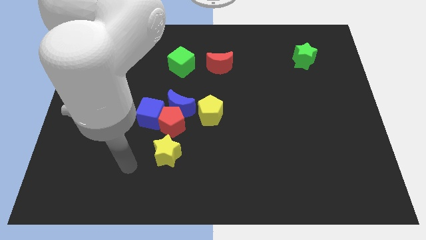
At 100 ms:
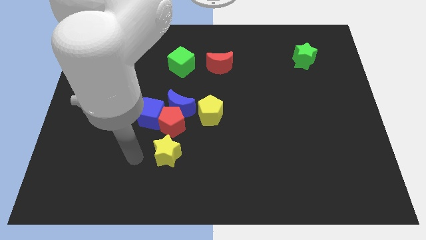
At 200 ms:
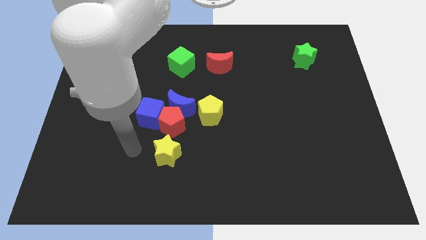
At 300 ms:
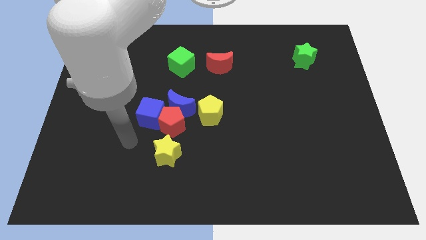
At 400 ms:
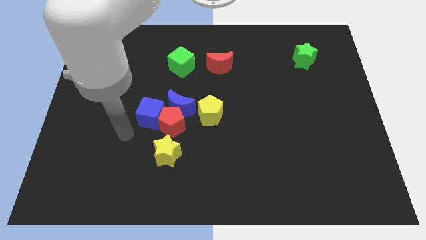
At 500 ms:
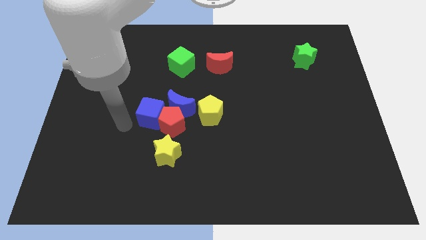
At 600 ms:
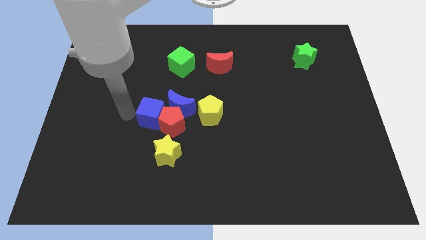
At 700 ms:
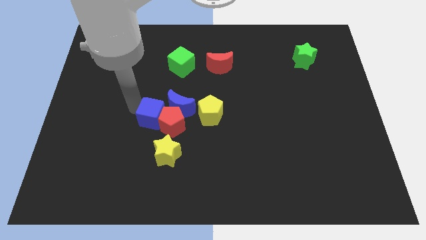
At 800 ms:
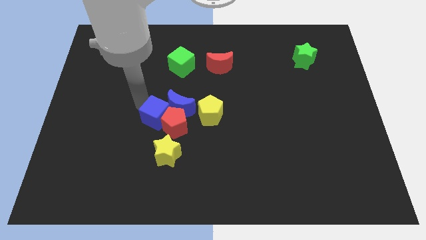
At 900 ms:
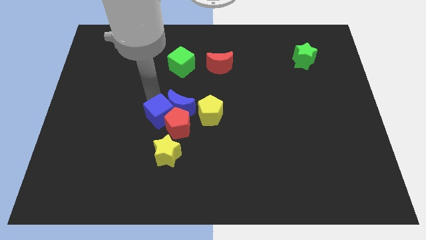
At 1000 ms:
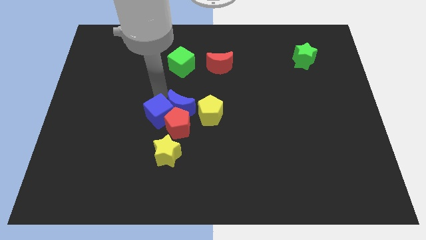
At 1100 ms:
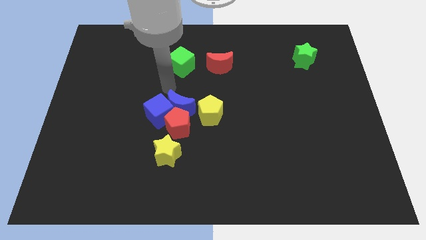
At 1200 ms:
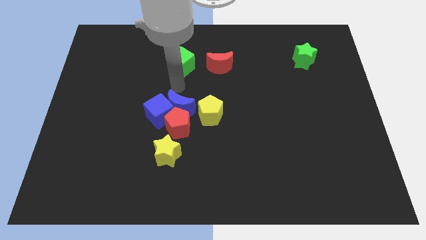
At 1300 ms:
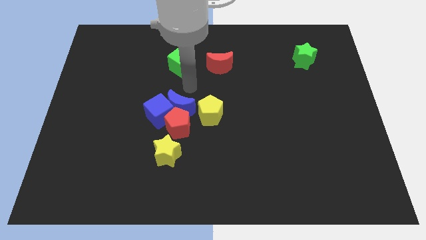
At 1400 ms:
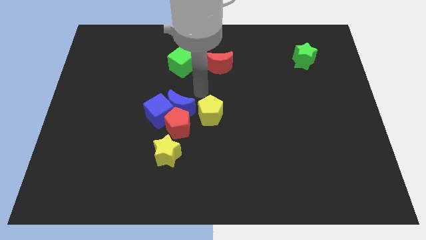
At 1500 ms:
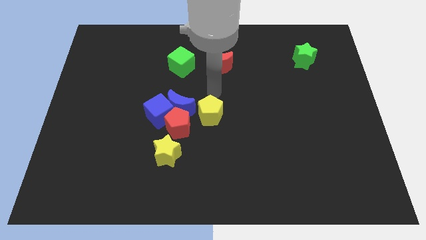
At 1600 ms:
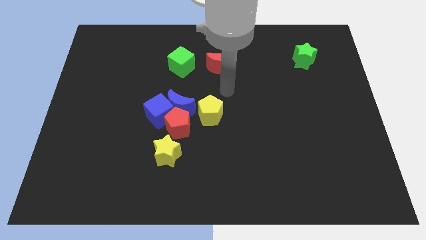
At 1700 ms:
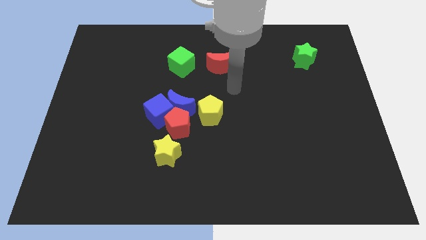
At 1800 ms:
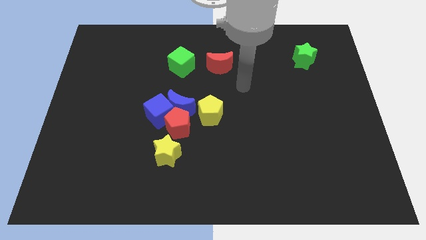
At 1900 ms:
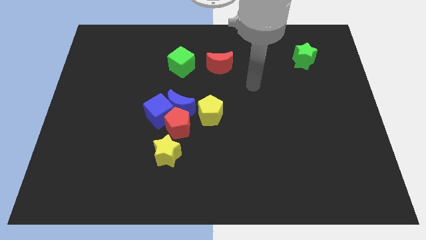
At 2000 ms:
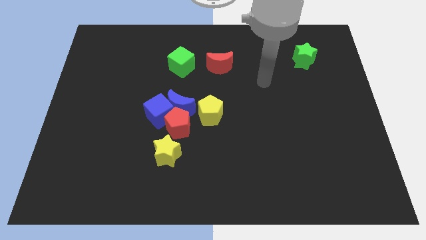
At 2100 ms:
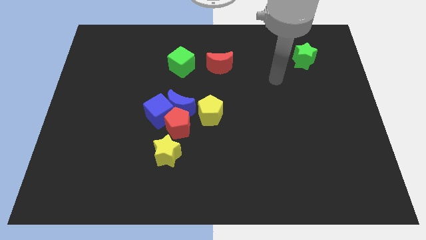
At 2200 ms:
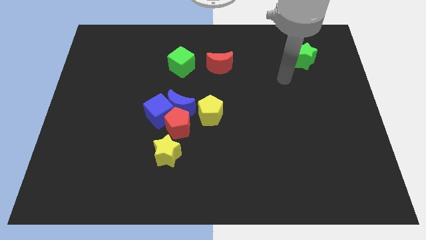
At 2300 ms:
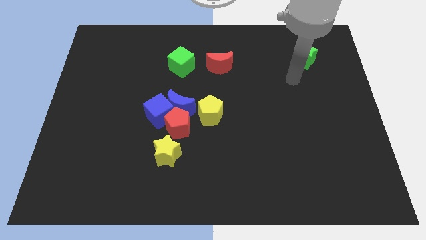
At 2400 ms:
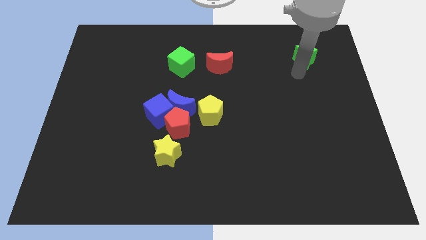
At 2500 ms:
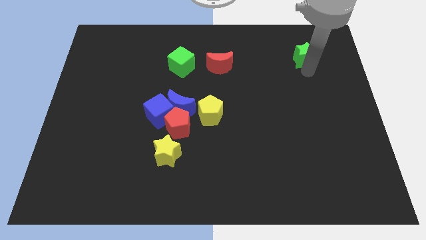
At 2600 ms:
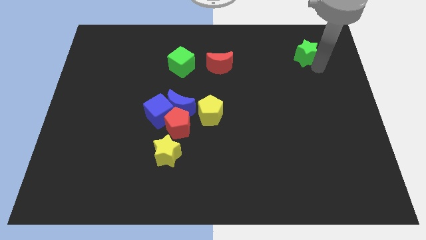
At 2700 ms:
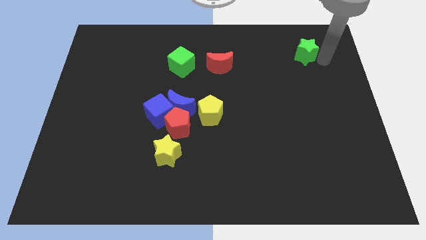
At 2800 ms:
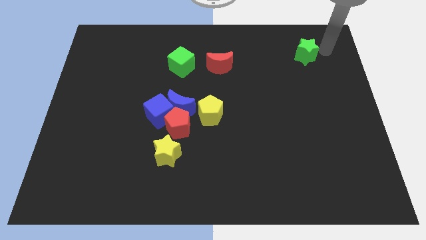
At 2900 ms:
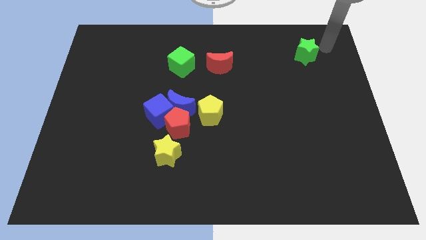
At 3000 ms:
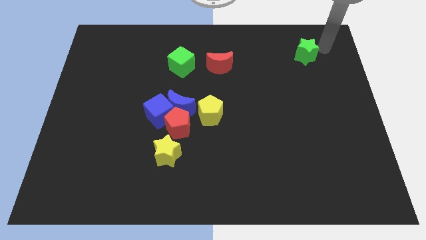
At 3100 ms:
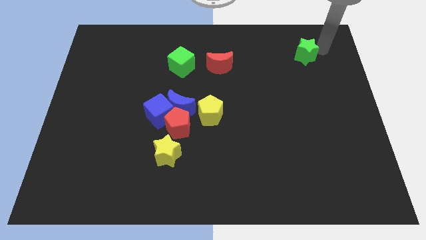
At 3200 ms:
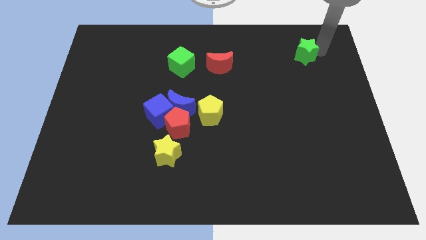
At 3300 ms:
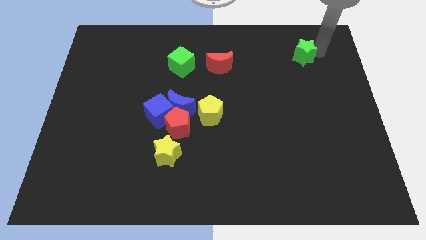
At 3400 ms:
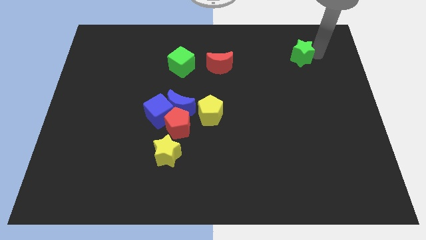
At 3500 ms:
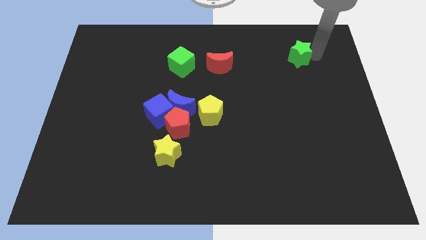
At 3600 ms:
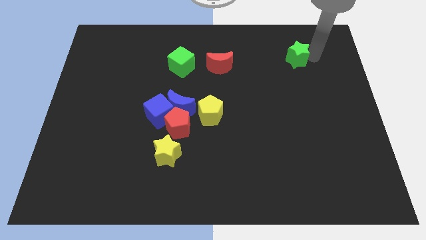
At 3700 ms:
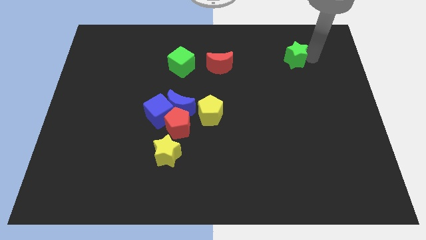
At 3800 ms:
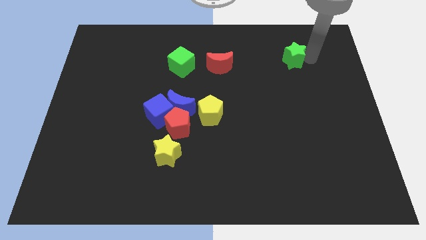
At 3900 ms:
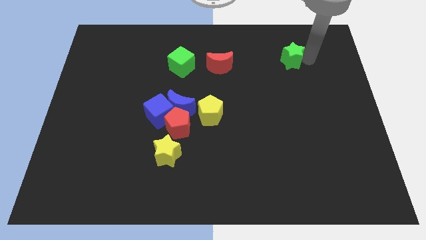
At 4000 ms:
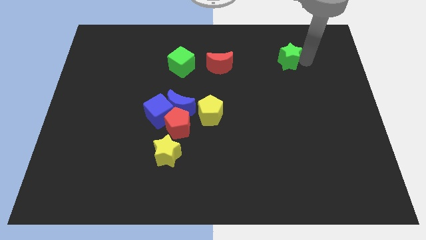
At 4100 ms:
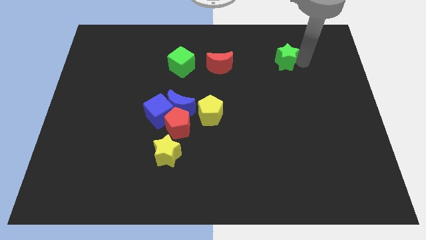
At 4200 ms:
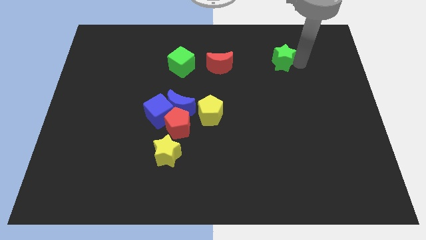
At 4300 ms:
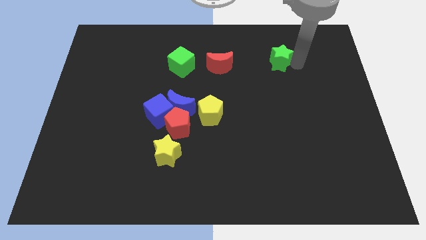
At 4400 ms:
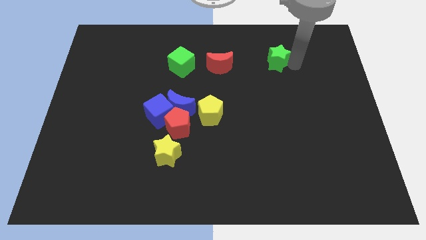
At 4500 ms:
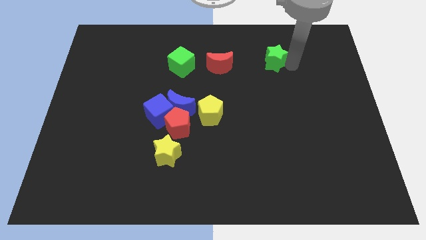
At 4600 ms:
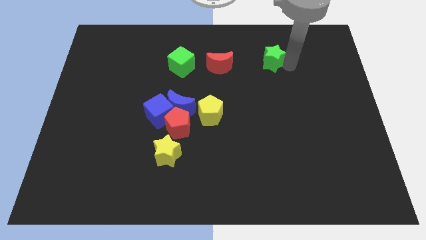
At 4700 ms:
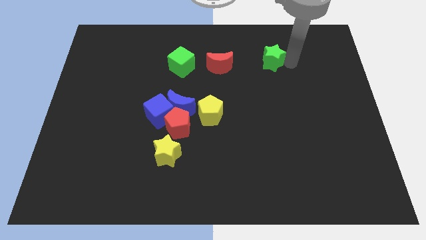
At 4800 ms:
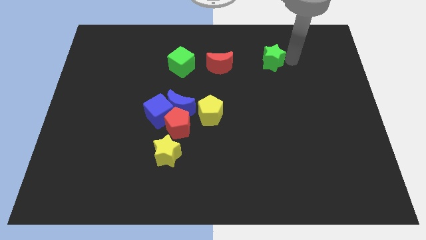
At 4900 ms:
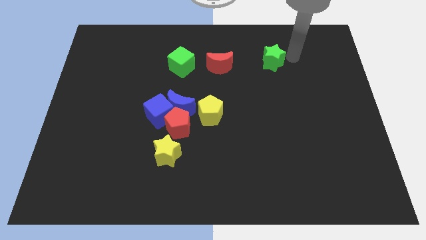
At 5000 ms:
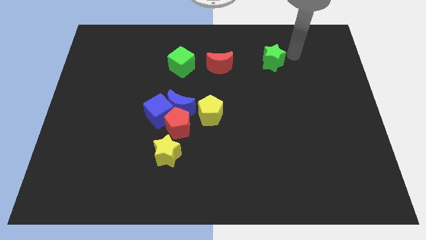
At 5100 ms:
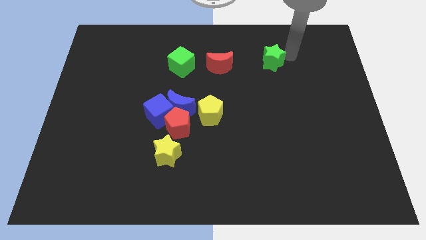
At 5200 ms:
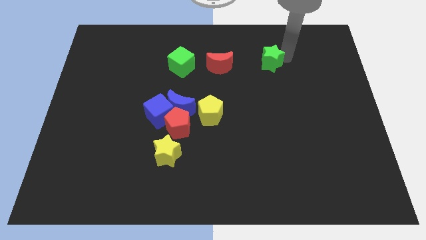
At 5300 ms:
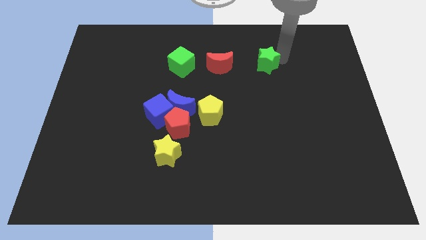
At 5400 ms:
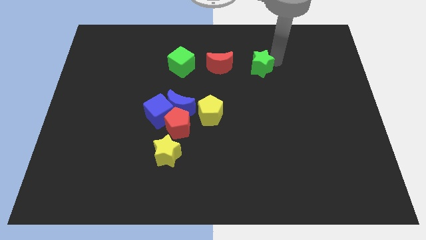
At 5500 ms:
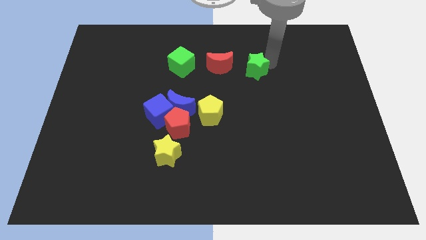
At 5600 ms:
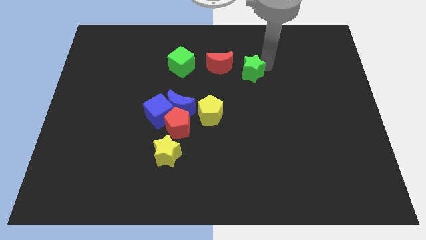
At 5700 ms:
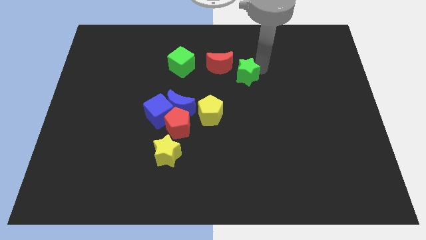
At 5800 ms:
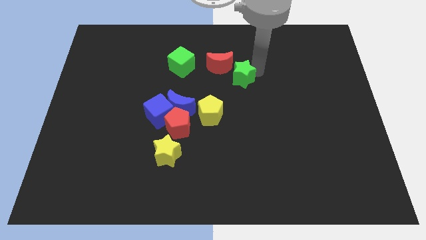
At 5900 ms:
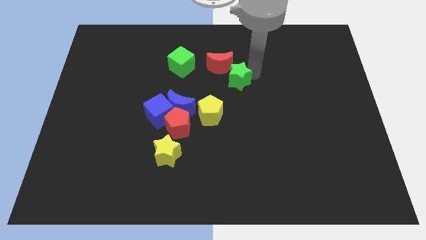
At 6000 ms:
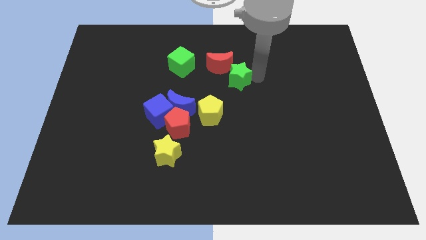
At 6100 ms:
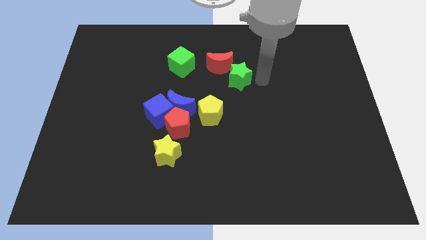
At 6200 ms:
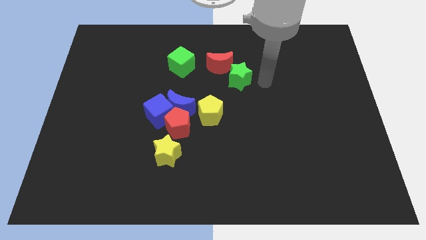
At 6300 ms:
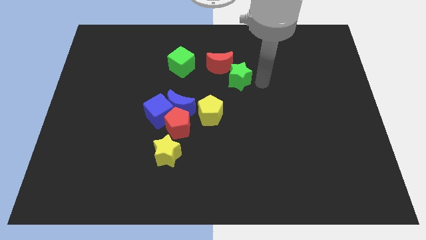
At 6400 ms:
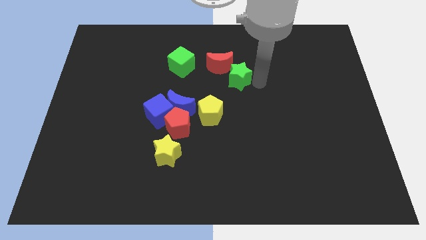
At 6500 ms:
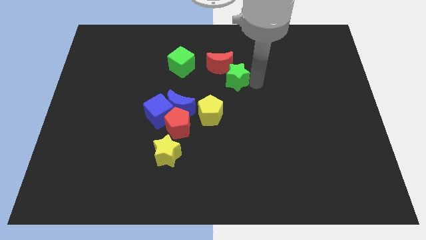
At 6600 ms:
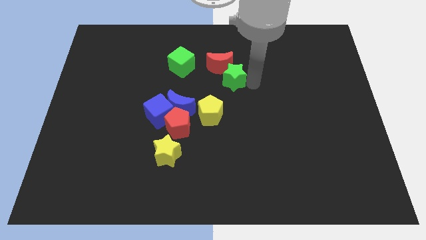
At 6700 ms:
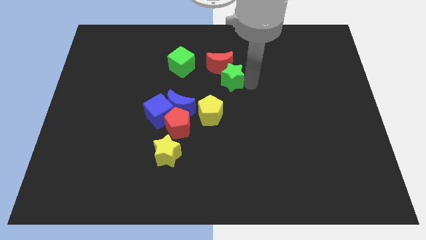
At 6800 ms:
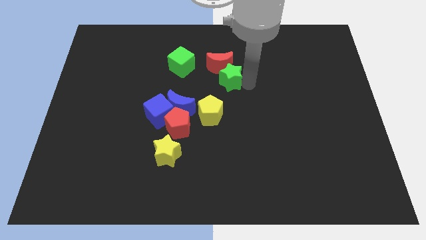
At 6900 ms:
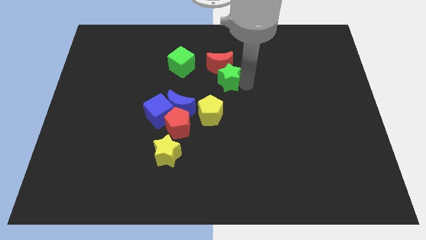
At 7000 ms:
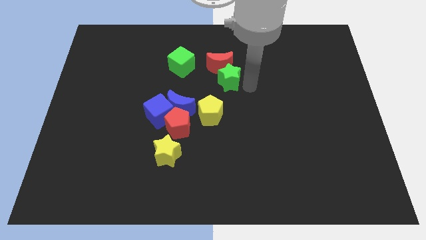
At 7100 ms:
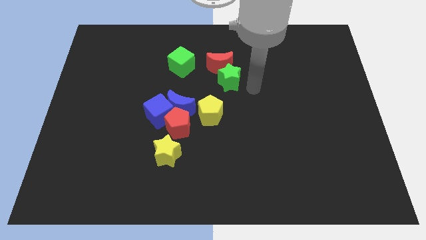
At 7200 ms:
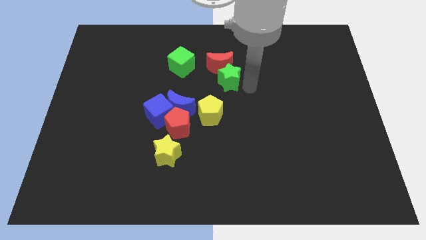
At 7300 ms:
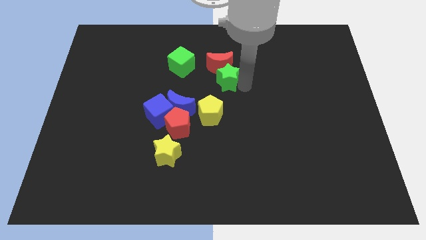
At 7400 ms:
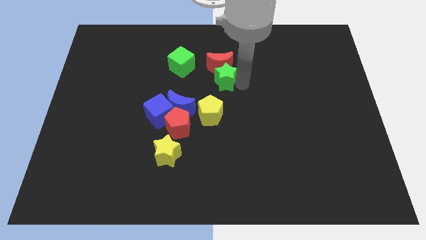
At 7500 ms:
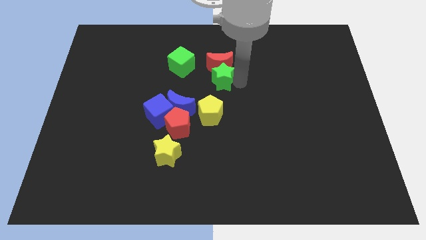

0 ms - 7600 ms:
push the green star to the bottom right of the green cube
